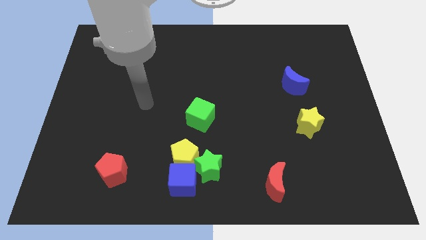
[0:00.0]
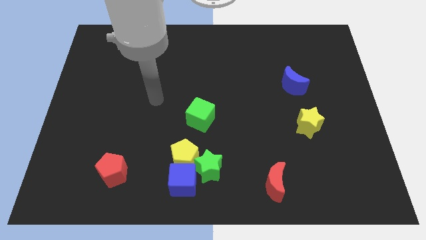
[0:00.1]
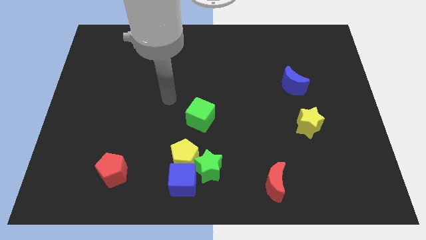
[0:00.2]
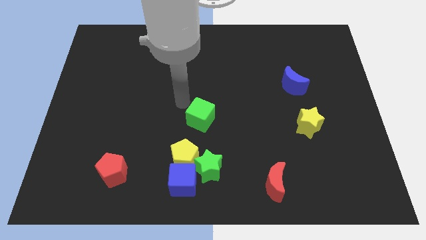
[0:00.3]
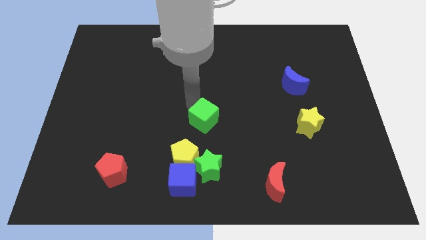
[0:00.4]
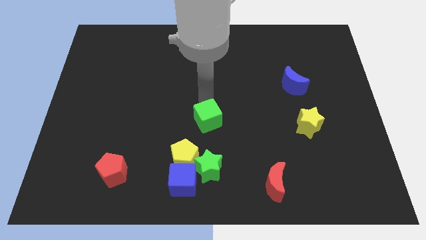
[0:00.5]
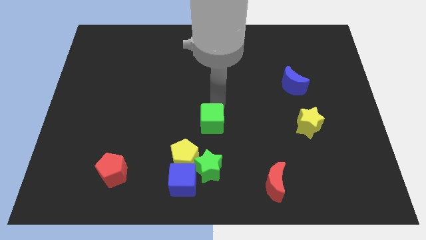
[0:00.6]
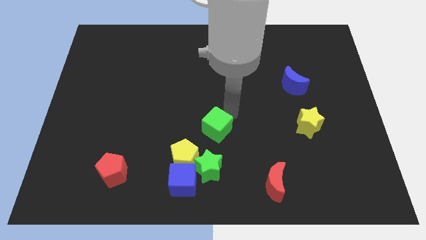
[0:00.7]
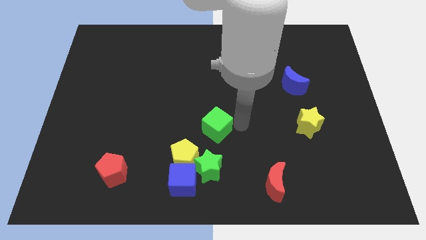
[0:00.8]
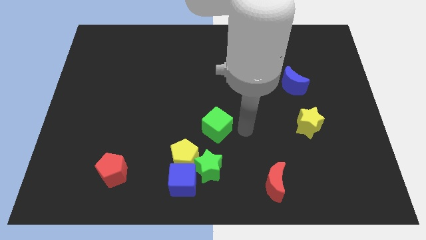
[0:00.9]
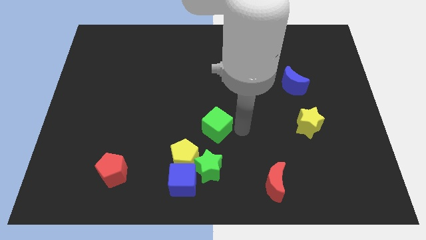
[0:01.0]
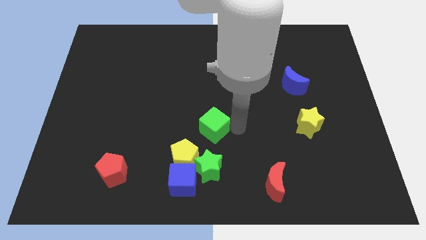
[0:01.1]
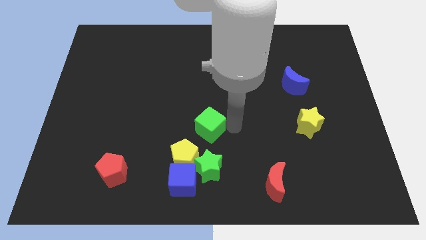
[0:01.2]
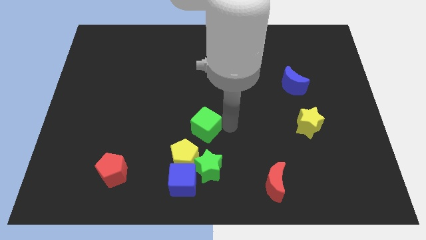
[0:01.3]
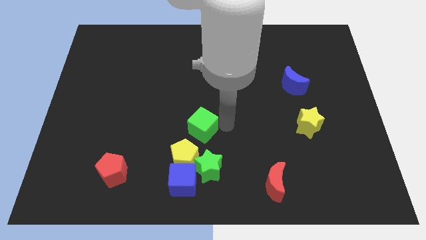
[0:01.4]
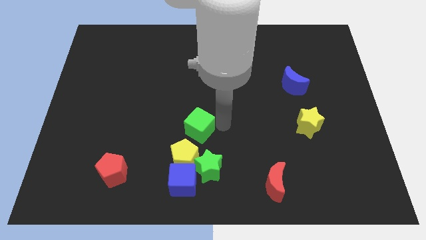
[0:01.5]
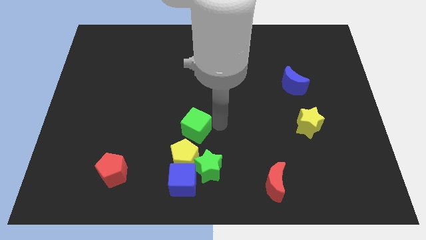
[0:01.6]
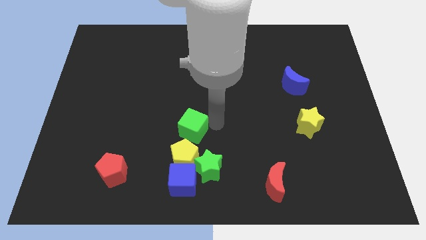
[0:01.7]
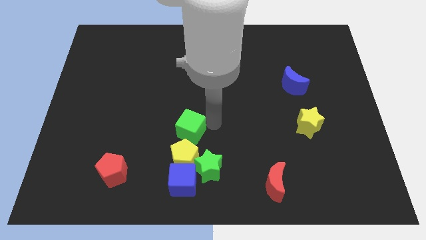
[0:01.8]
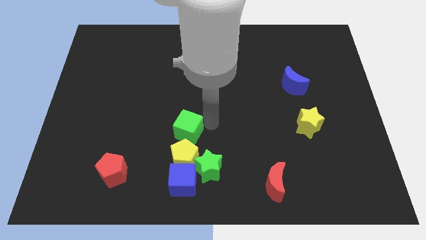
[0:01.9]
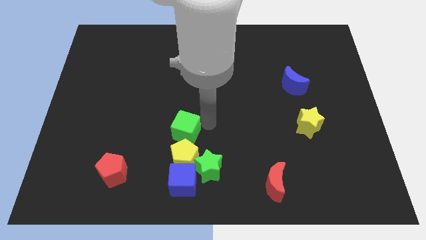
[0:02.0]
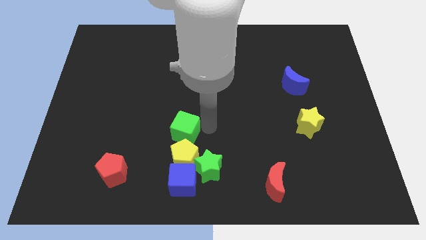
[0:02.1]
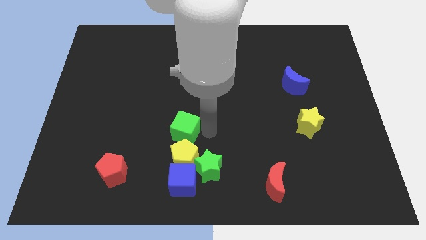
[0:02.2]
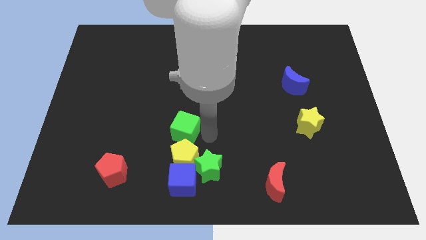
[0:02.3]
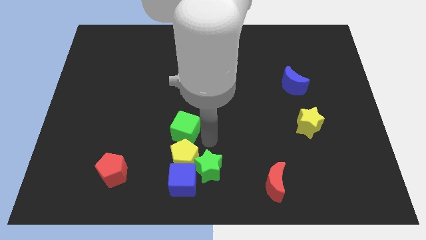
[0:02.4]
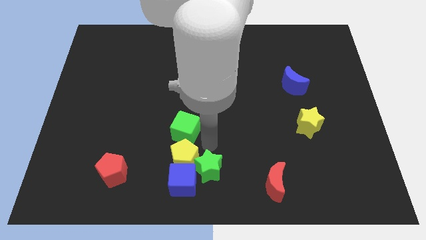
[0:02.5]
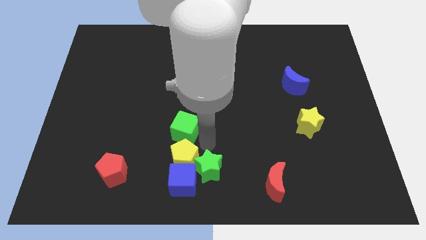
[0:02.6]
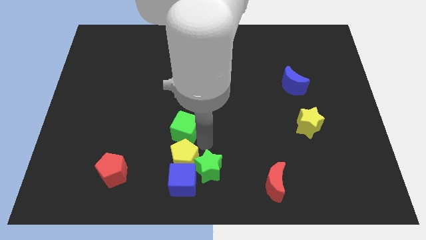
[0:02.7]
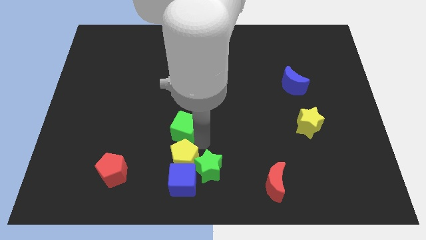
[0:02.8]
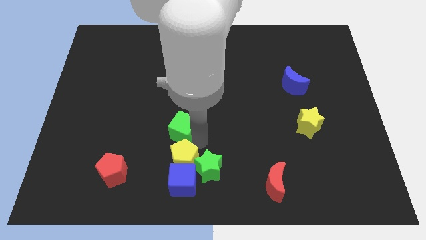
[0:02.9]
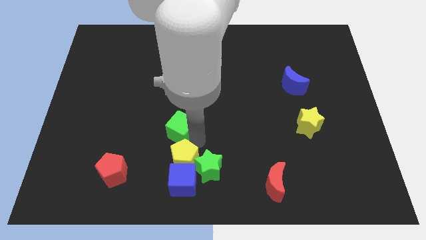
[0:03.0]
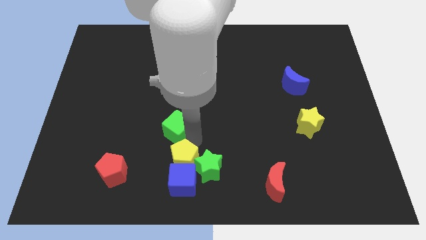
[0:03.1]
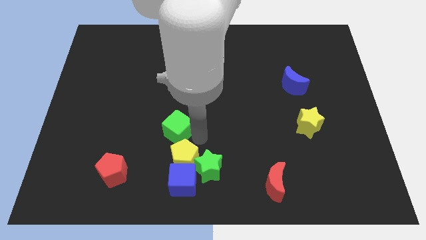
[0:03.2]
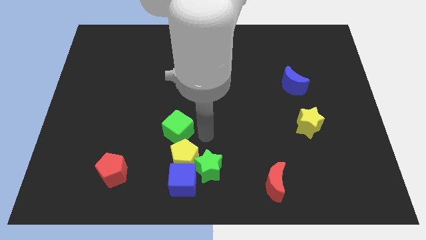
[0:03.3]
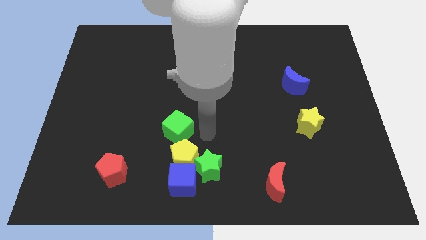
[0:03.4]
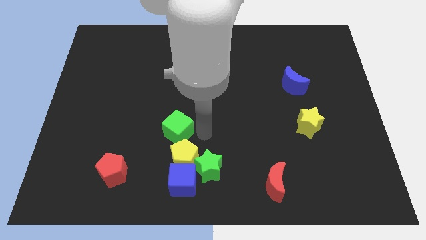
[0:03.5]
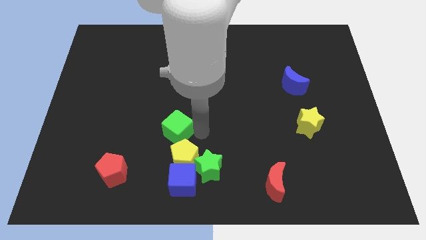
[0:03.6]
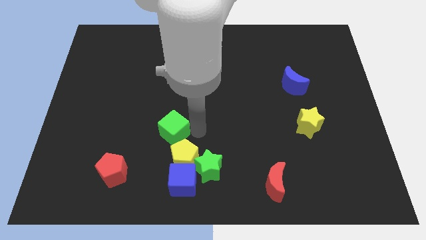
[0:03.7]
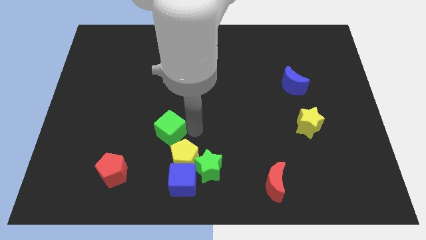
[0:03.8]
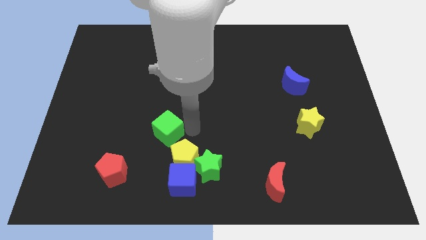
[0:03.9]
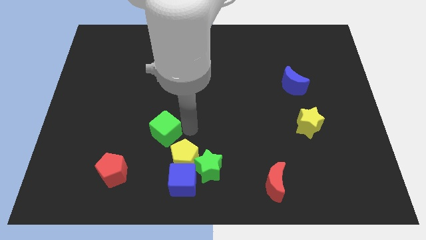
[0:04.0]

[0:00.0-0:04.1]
slightly move the green cube to the left

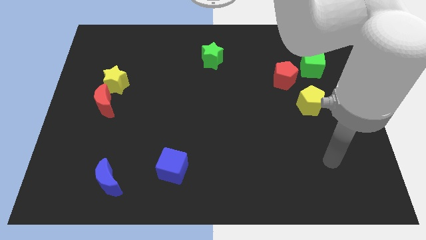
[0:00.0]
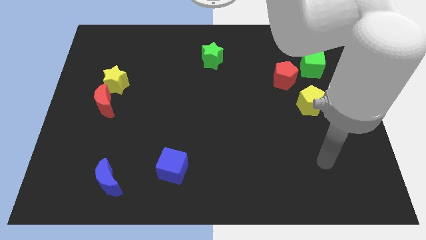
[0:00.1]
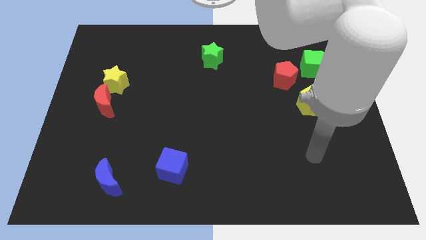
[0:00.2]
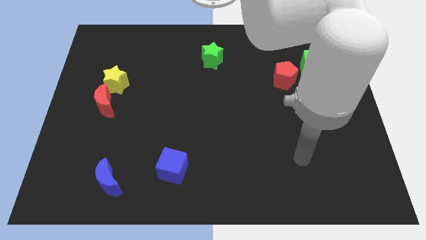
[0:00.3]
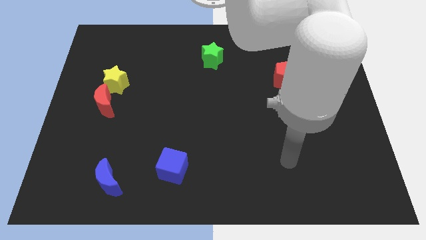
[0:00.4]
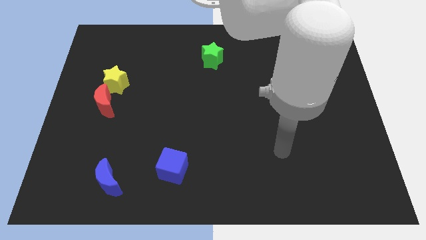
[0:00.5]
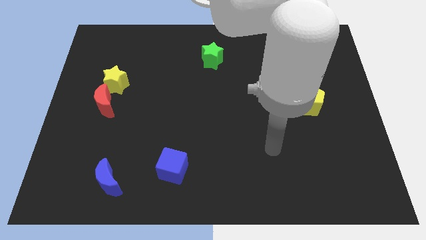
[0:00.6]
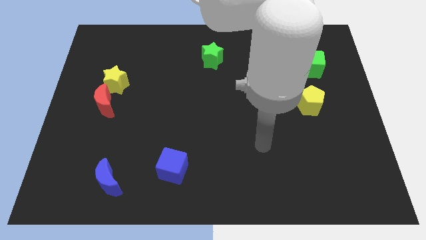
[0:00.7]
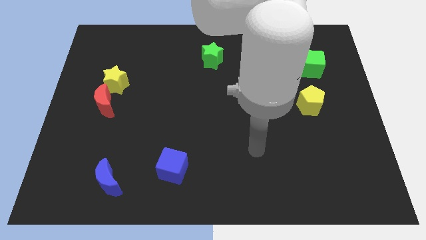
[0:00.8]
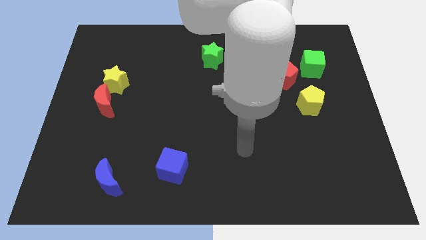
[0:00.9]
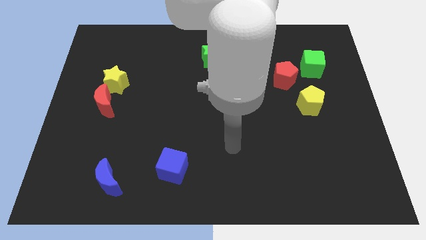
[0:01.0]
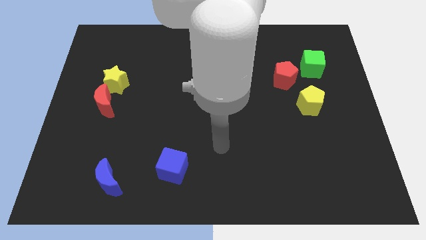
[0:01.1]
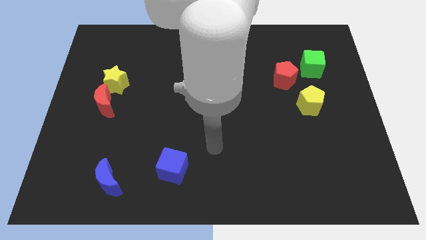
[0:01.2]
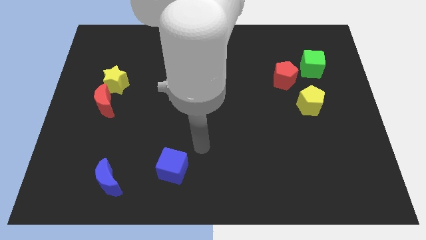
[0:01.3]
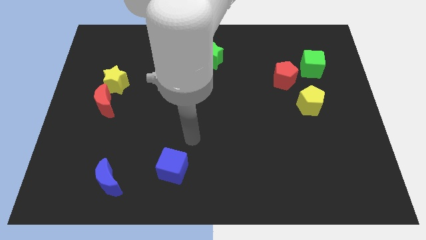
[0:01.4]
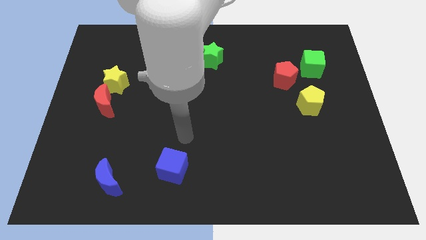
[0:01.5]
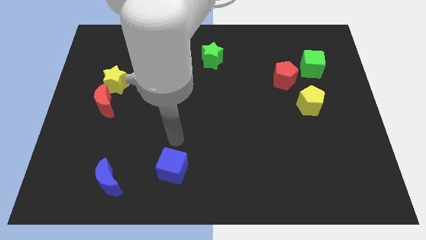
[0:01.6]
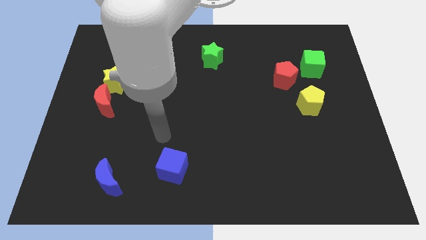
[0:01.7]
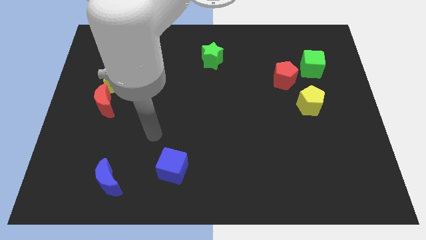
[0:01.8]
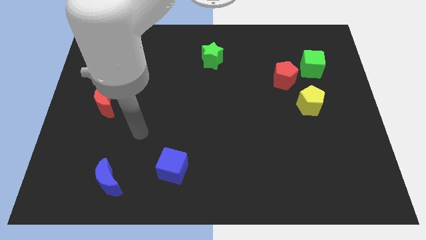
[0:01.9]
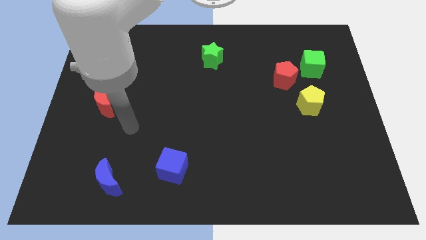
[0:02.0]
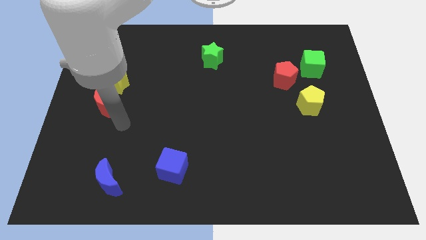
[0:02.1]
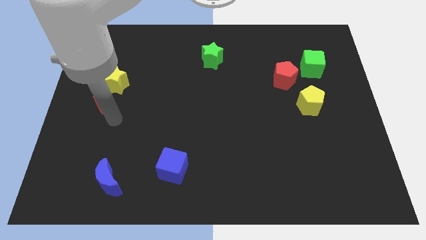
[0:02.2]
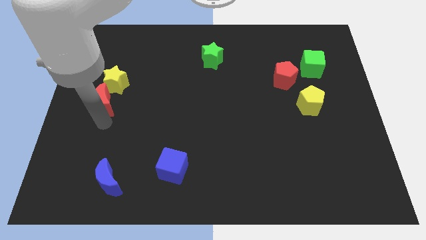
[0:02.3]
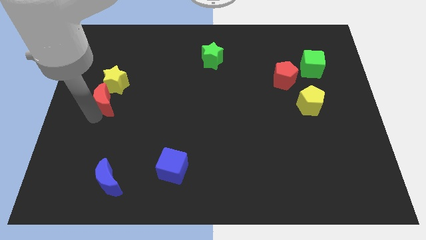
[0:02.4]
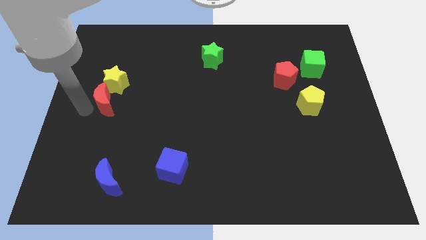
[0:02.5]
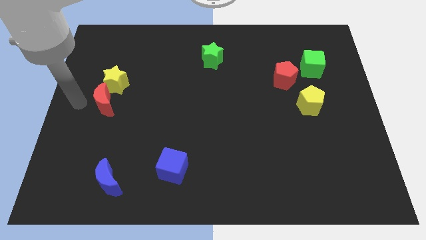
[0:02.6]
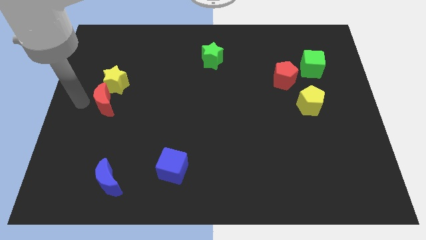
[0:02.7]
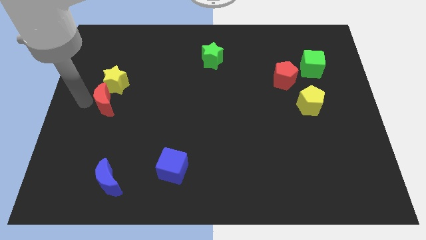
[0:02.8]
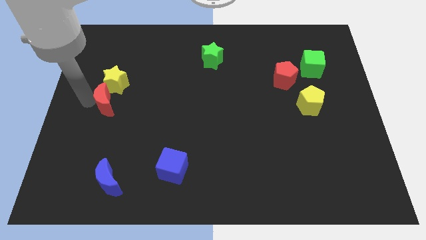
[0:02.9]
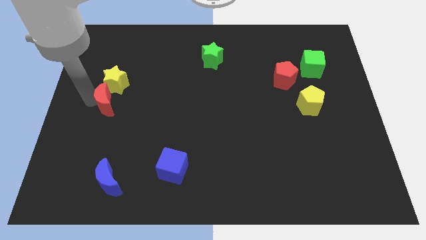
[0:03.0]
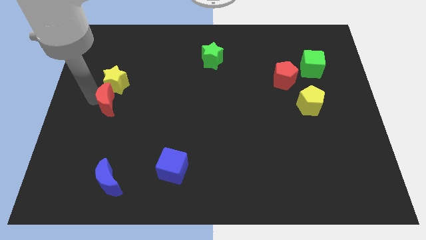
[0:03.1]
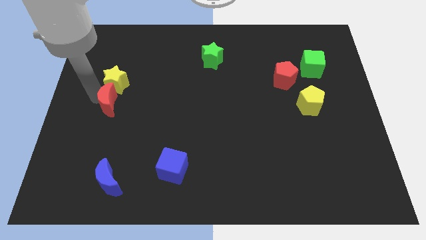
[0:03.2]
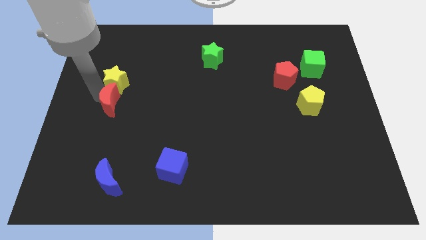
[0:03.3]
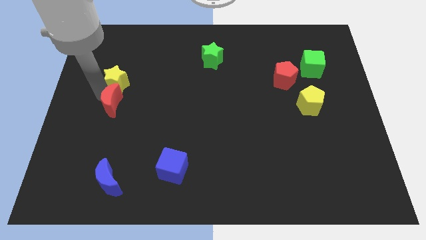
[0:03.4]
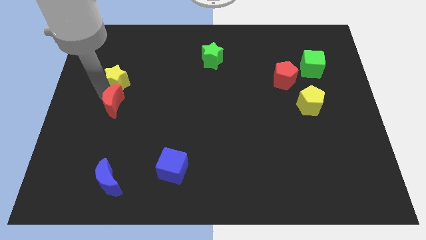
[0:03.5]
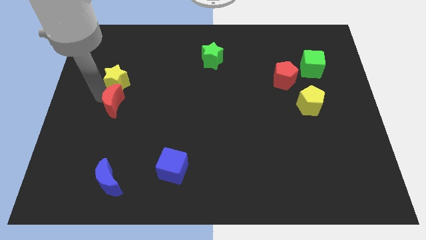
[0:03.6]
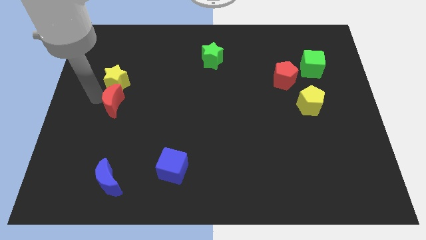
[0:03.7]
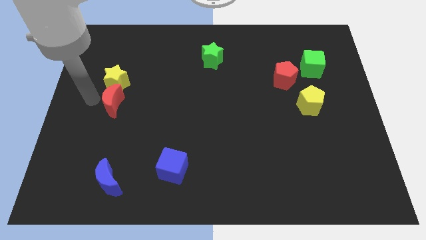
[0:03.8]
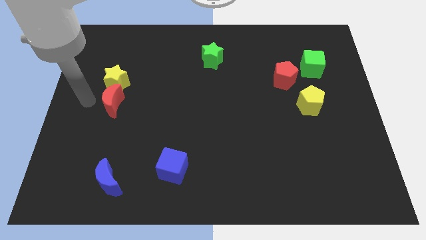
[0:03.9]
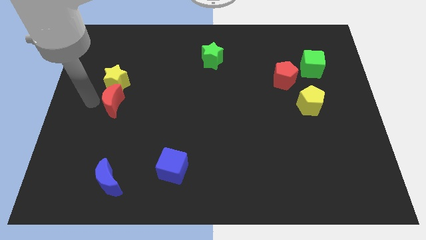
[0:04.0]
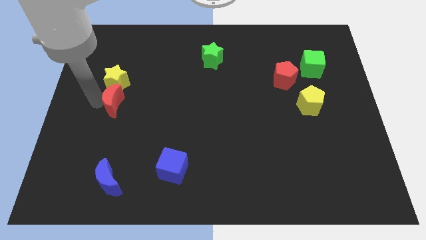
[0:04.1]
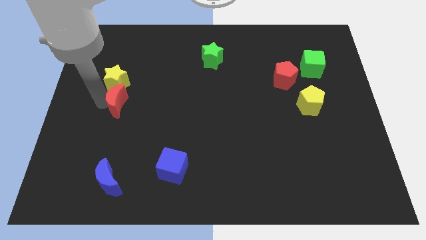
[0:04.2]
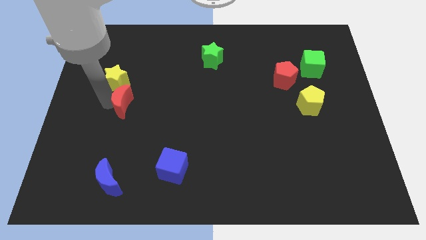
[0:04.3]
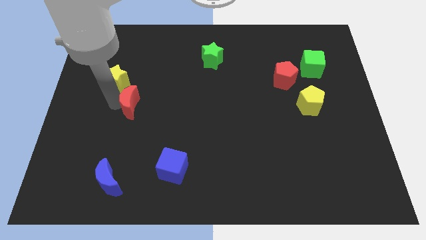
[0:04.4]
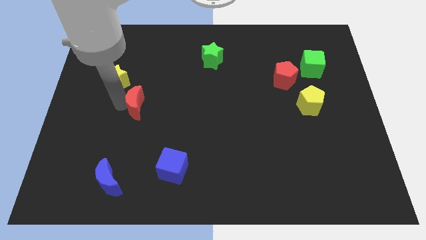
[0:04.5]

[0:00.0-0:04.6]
slightly move the red moon to the right
